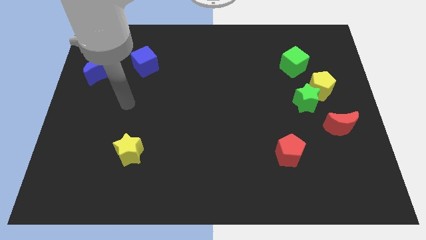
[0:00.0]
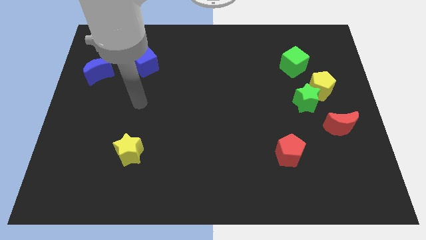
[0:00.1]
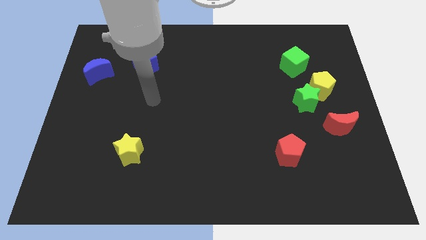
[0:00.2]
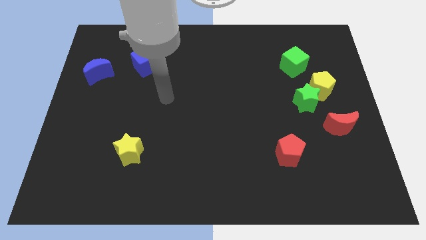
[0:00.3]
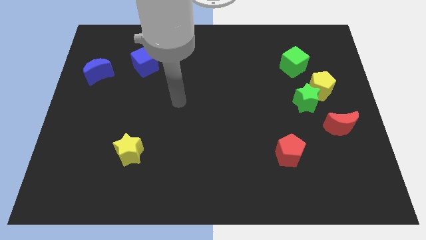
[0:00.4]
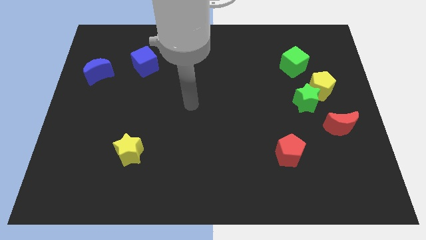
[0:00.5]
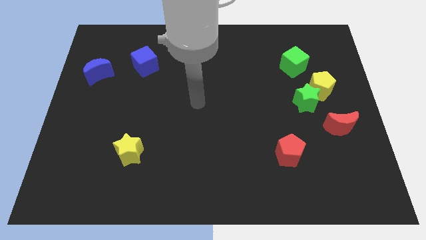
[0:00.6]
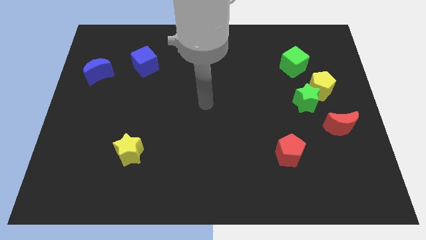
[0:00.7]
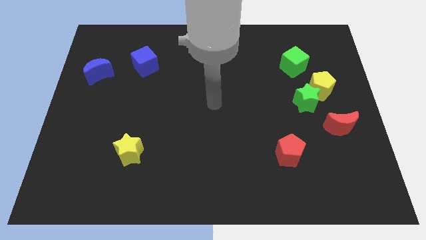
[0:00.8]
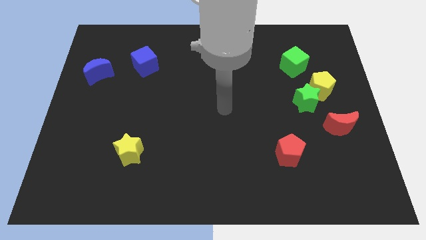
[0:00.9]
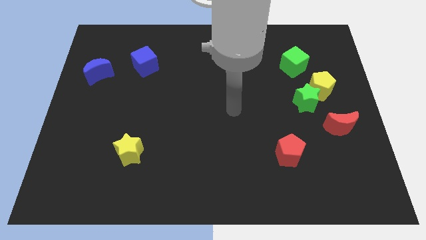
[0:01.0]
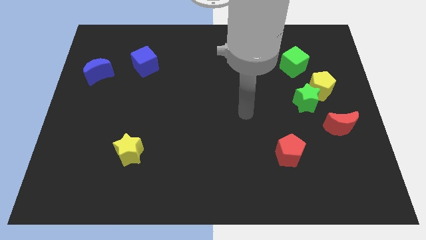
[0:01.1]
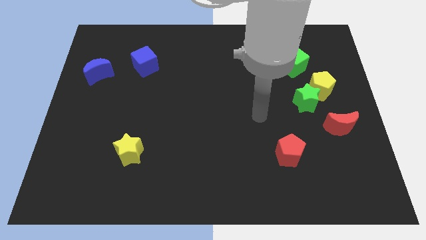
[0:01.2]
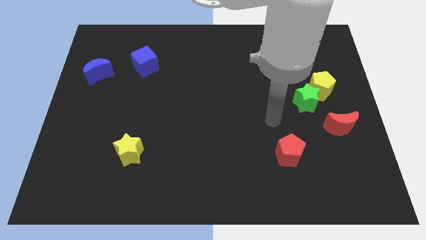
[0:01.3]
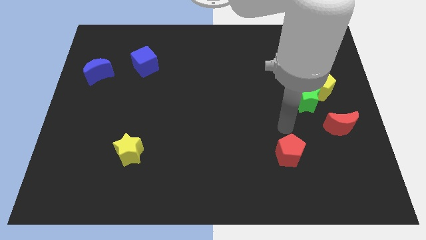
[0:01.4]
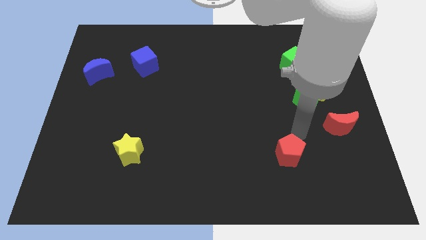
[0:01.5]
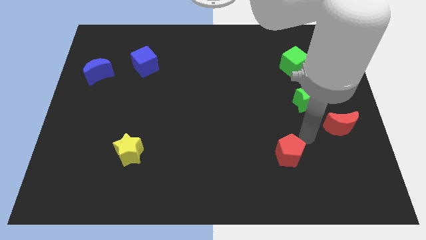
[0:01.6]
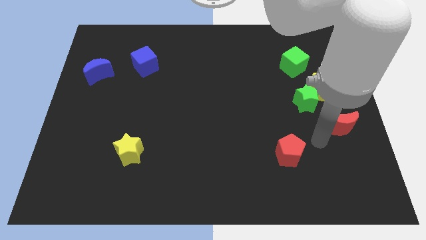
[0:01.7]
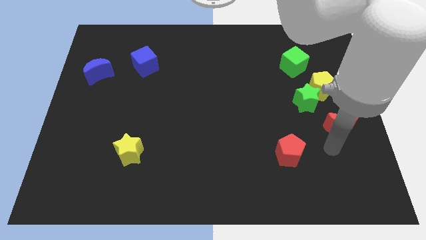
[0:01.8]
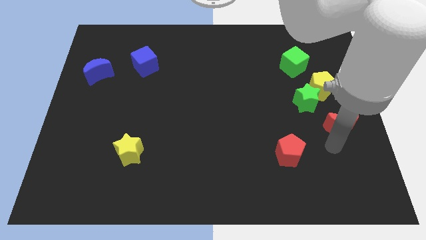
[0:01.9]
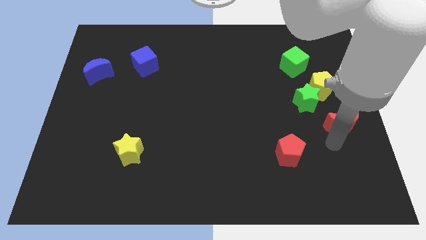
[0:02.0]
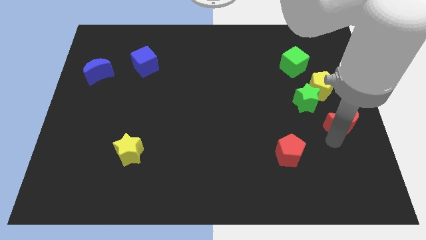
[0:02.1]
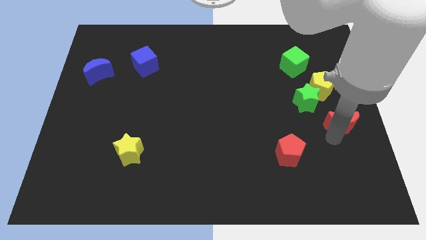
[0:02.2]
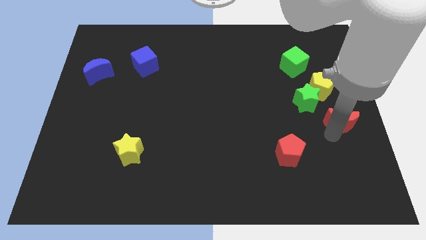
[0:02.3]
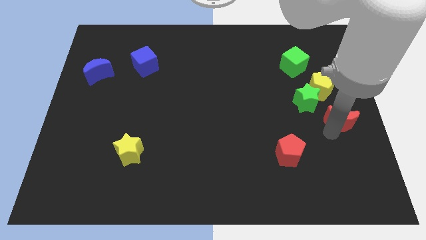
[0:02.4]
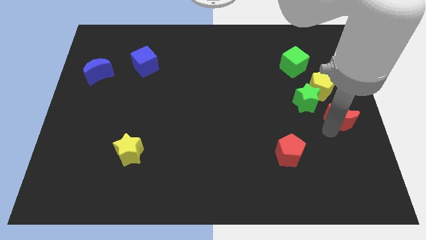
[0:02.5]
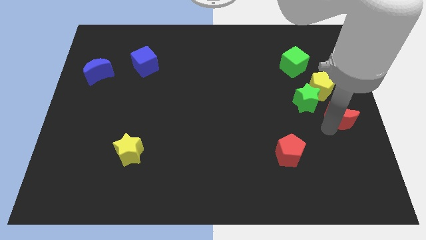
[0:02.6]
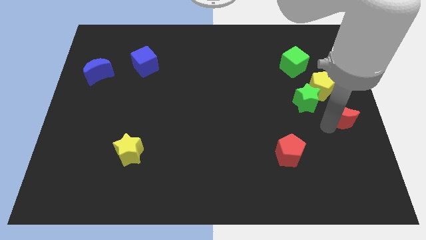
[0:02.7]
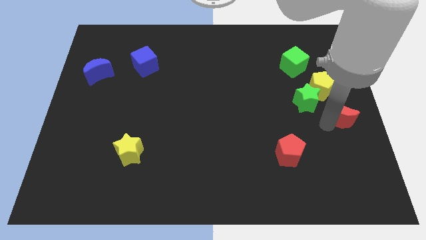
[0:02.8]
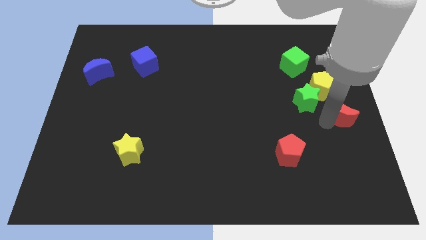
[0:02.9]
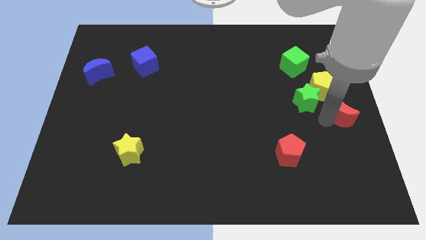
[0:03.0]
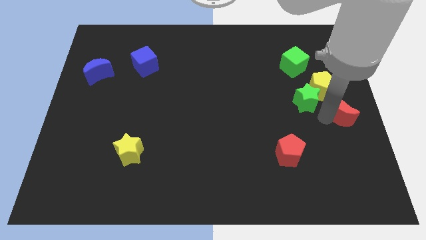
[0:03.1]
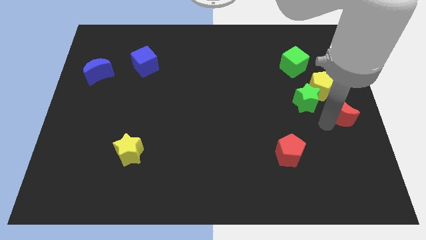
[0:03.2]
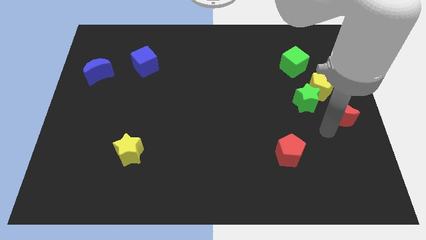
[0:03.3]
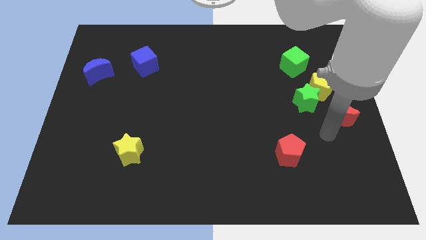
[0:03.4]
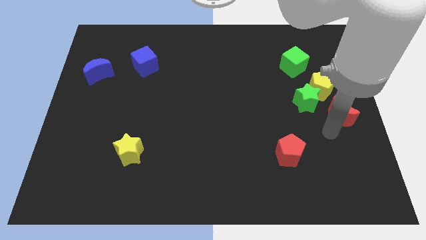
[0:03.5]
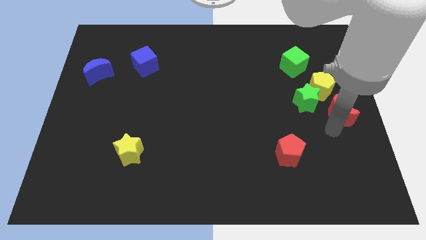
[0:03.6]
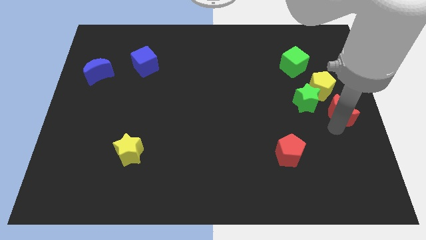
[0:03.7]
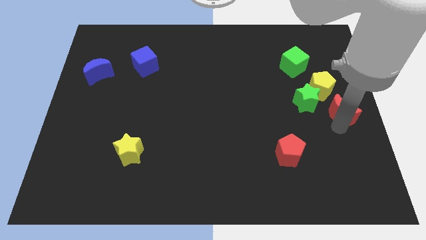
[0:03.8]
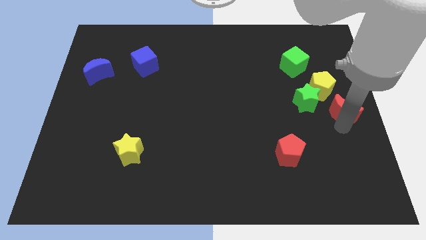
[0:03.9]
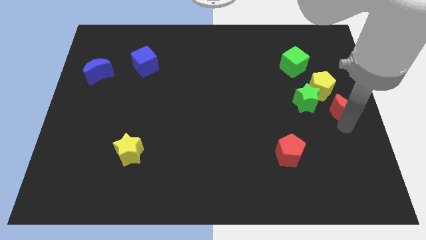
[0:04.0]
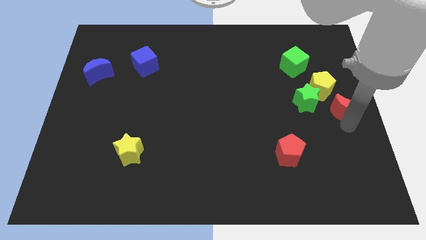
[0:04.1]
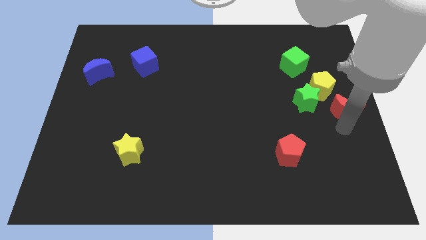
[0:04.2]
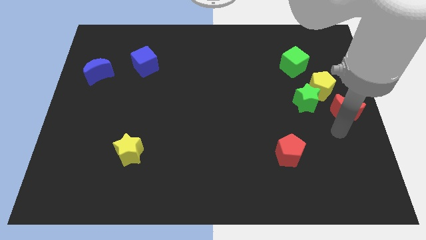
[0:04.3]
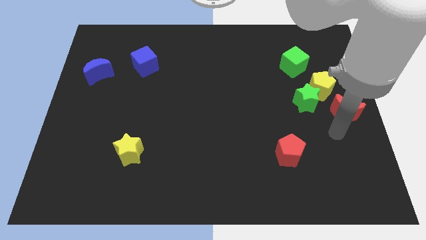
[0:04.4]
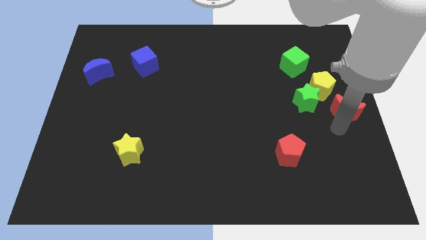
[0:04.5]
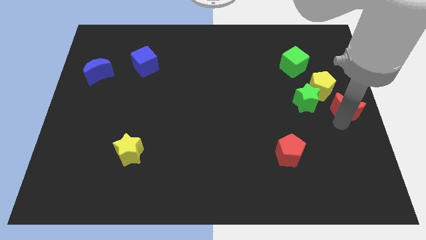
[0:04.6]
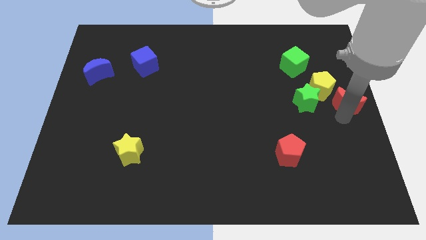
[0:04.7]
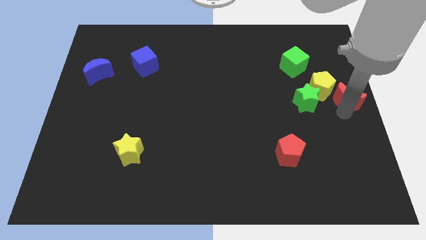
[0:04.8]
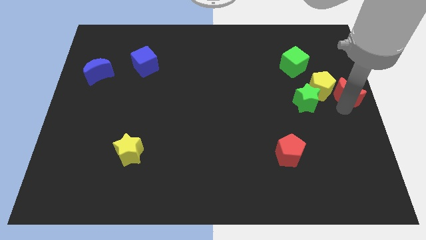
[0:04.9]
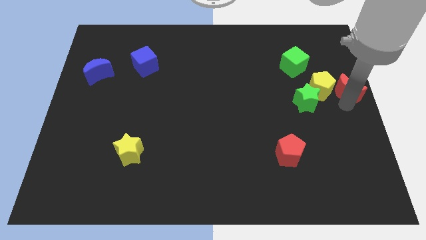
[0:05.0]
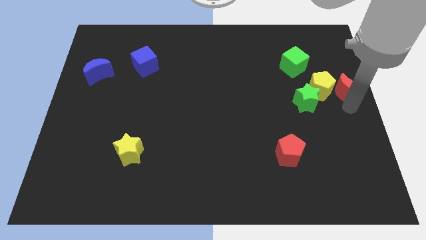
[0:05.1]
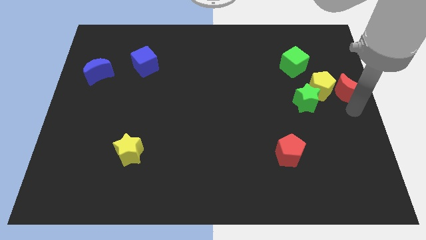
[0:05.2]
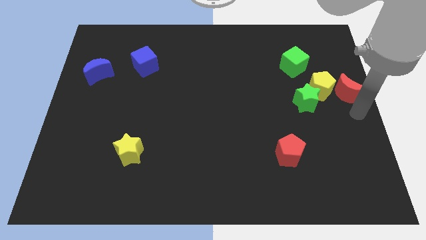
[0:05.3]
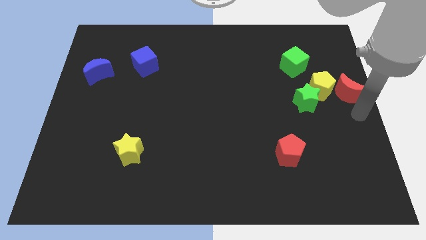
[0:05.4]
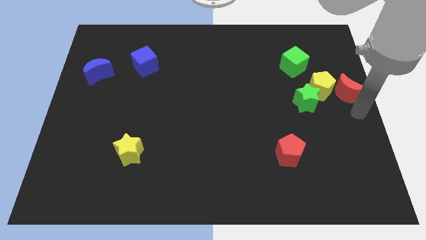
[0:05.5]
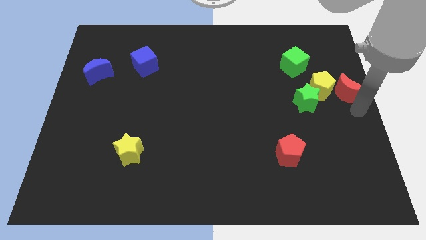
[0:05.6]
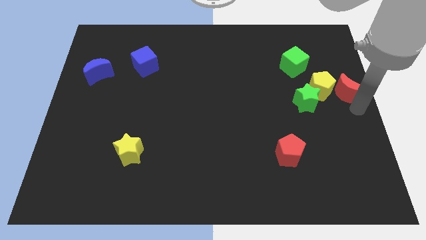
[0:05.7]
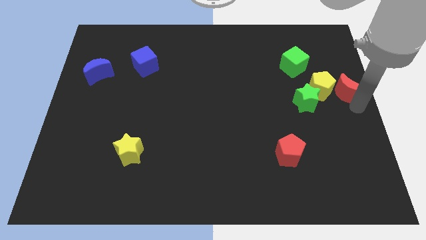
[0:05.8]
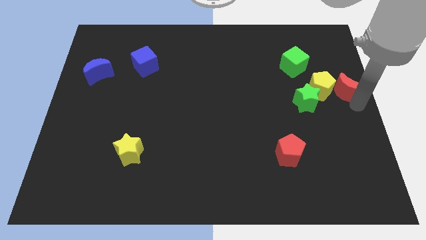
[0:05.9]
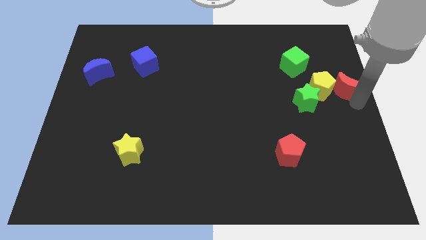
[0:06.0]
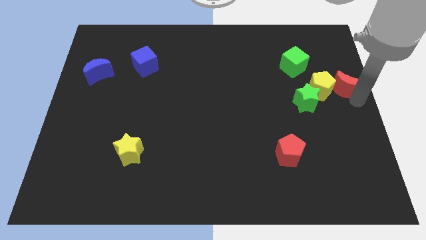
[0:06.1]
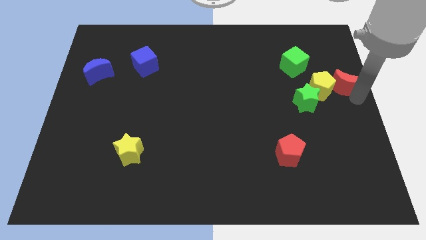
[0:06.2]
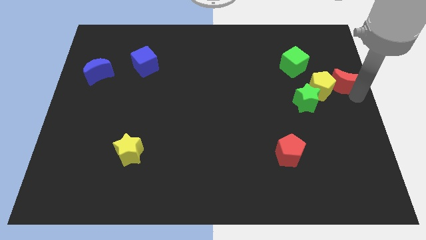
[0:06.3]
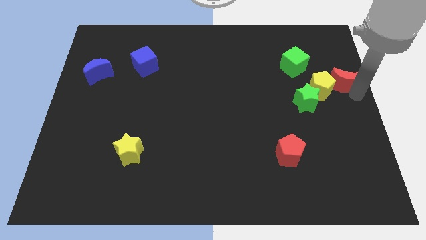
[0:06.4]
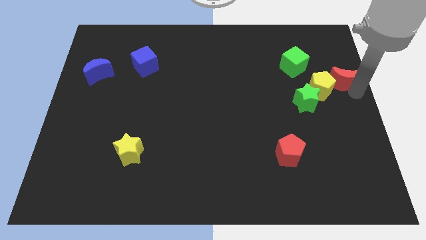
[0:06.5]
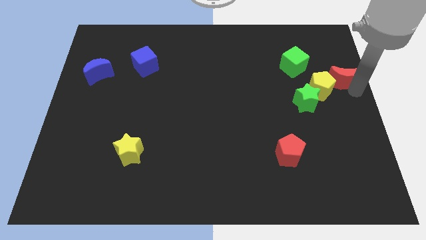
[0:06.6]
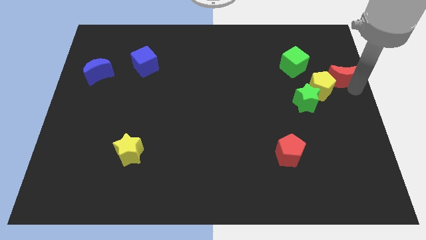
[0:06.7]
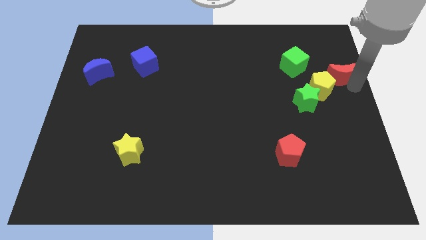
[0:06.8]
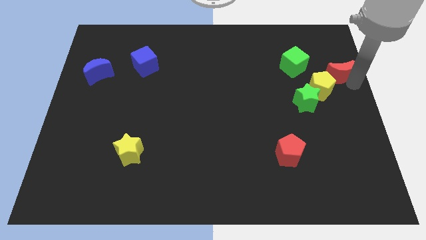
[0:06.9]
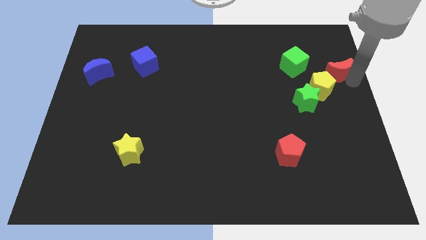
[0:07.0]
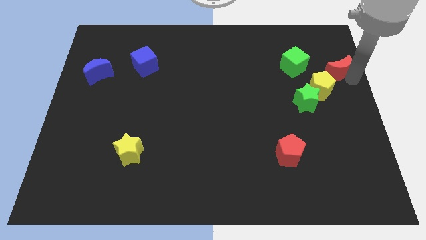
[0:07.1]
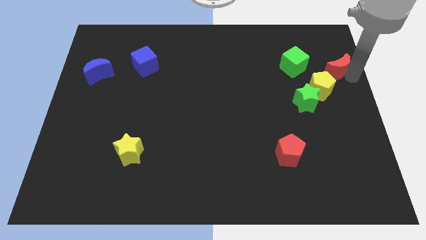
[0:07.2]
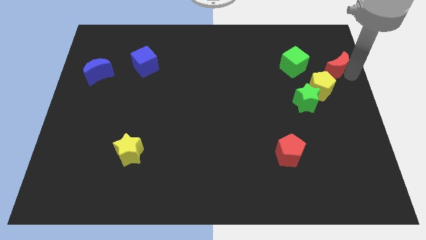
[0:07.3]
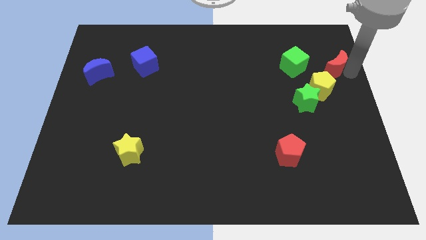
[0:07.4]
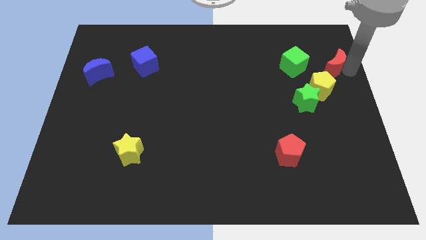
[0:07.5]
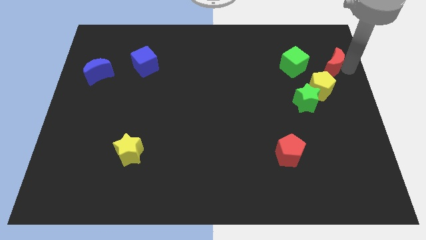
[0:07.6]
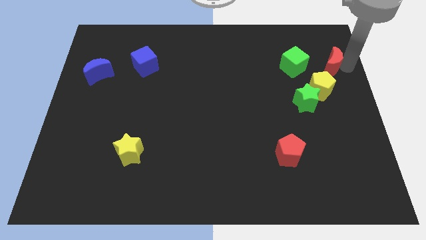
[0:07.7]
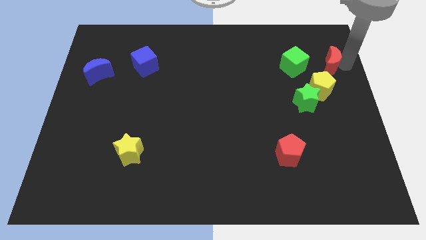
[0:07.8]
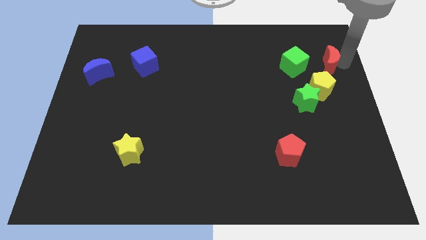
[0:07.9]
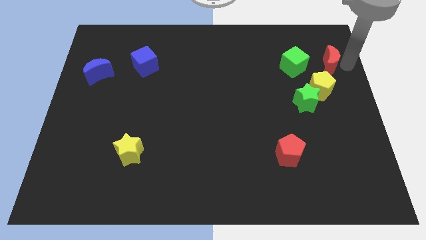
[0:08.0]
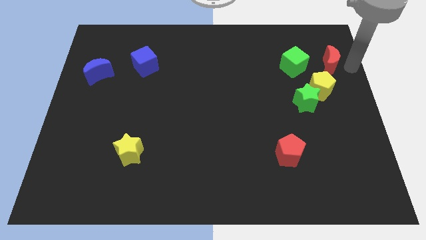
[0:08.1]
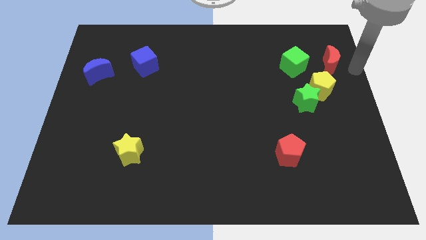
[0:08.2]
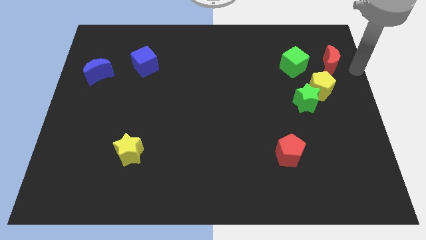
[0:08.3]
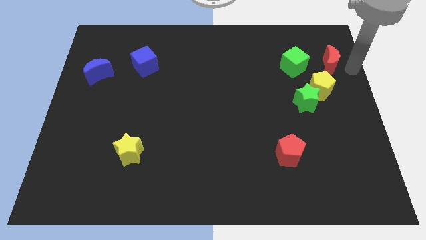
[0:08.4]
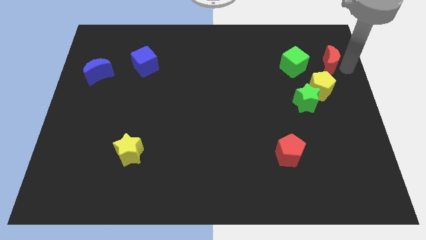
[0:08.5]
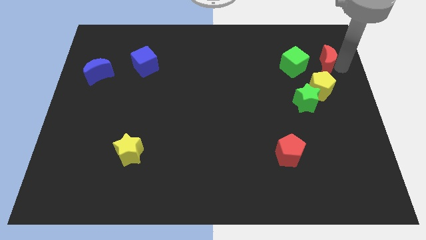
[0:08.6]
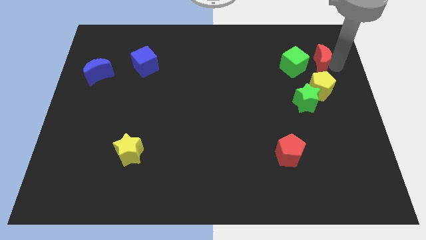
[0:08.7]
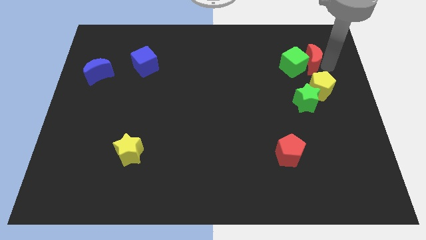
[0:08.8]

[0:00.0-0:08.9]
slide the red moon to the top side of the green star
